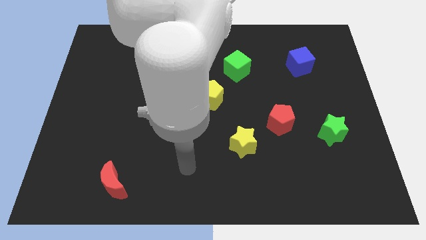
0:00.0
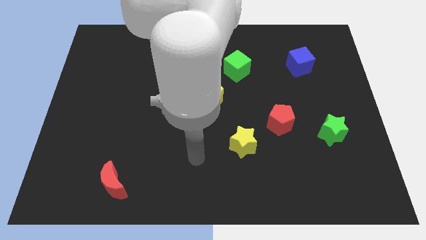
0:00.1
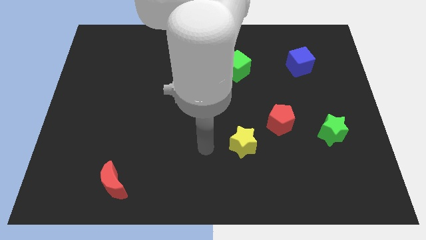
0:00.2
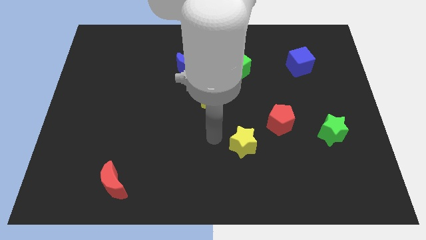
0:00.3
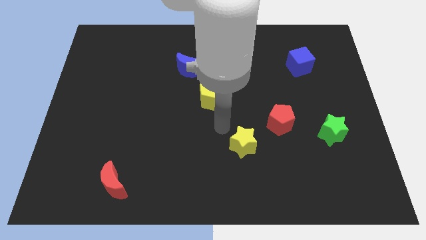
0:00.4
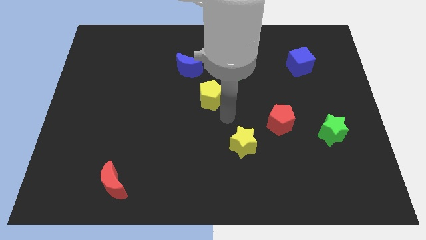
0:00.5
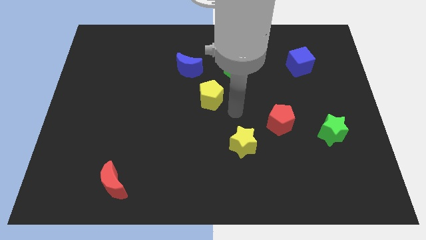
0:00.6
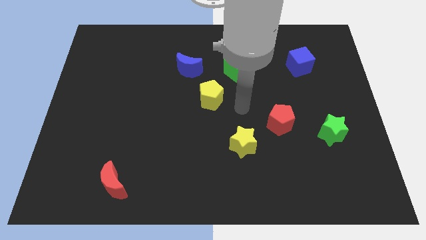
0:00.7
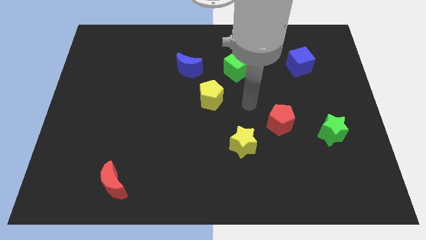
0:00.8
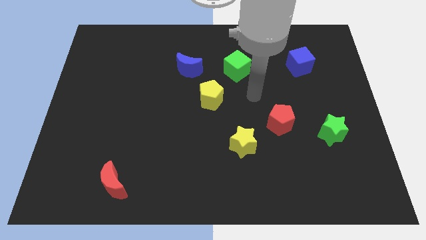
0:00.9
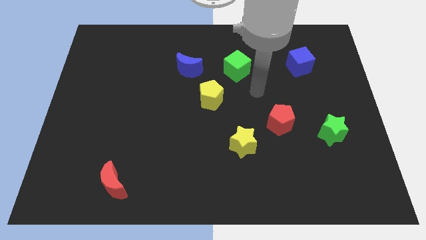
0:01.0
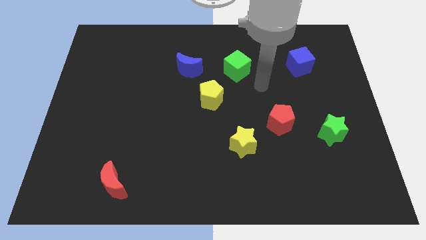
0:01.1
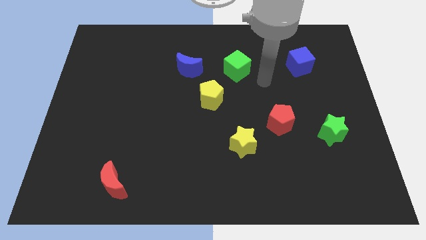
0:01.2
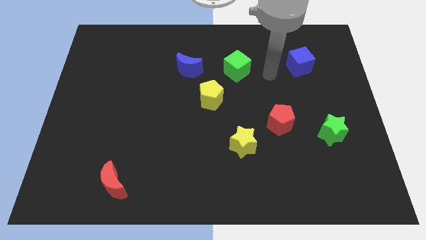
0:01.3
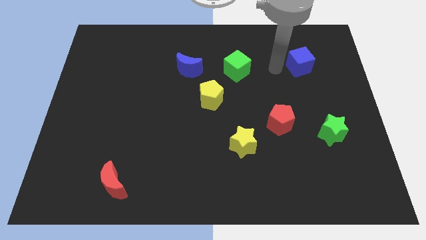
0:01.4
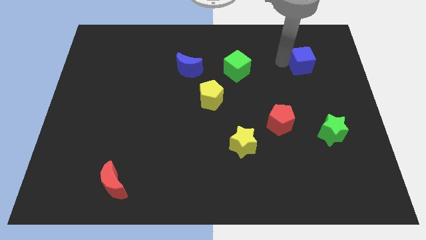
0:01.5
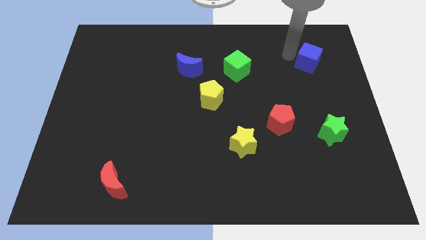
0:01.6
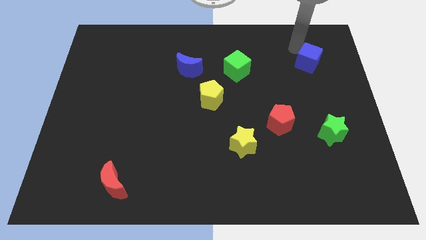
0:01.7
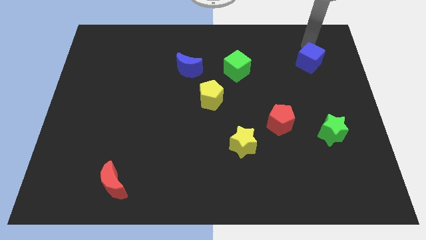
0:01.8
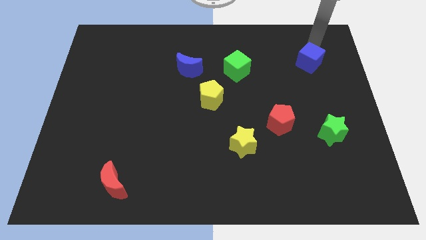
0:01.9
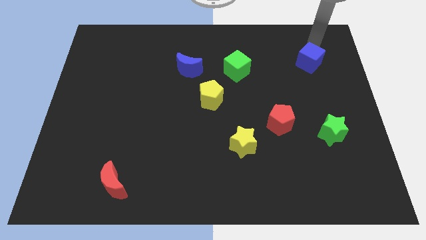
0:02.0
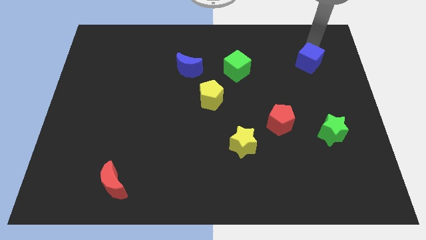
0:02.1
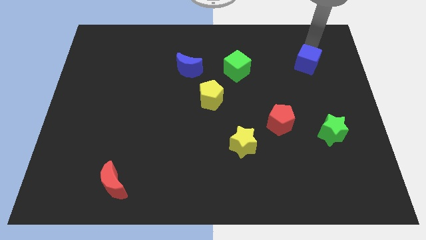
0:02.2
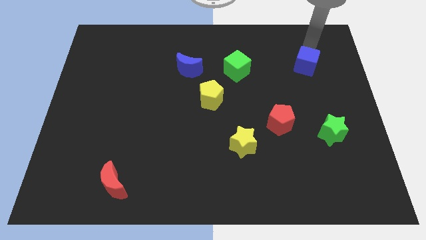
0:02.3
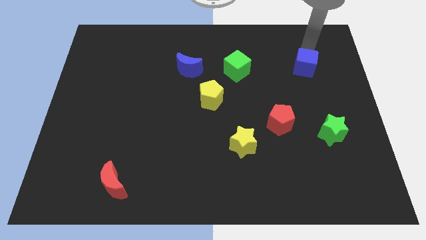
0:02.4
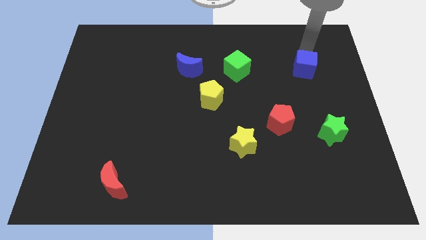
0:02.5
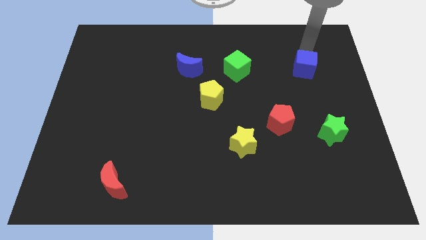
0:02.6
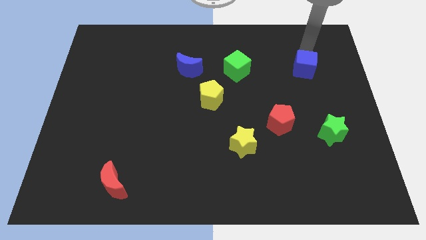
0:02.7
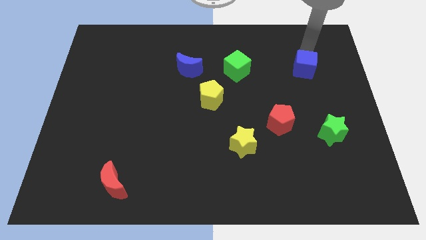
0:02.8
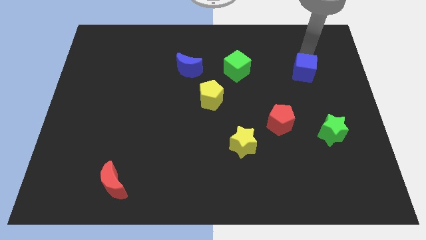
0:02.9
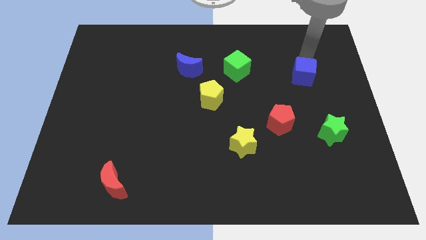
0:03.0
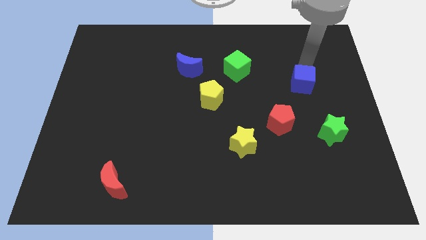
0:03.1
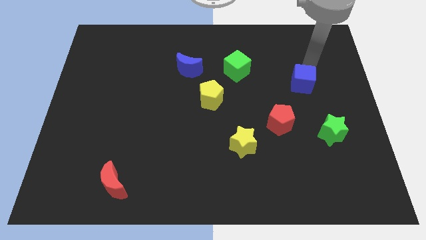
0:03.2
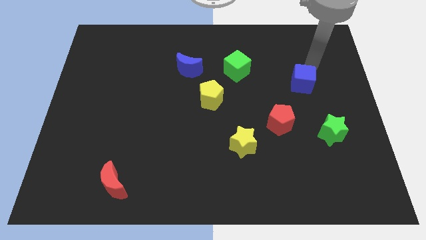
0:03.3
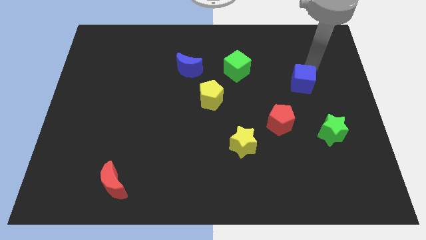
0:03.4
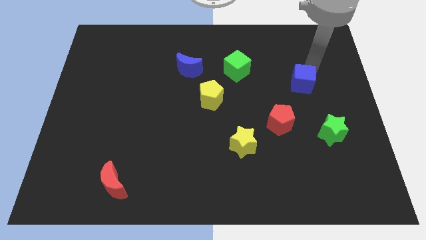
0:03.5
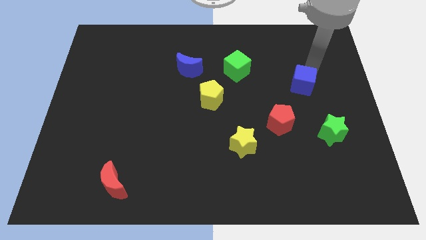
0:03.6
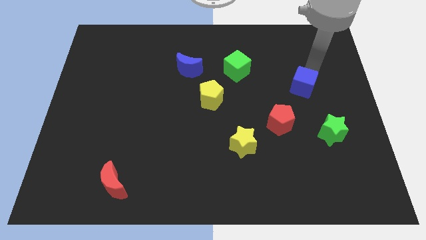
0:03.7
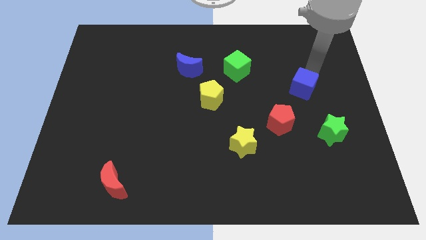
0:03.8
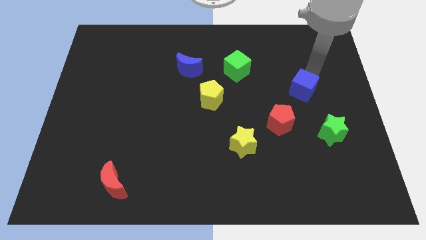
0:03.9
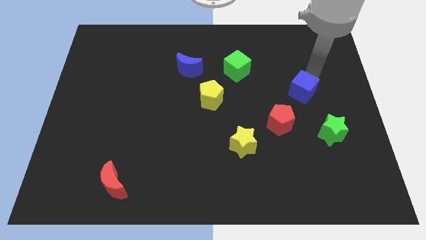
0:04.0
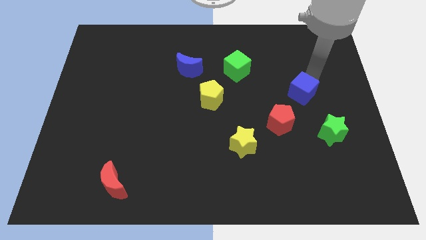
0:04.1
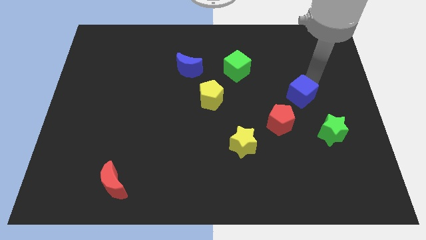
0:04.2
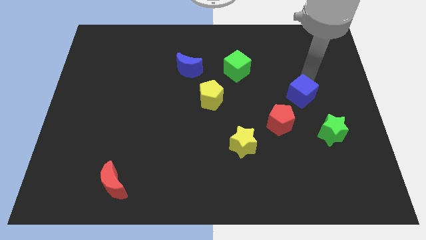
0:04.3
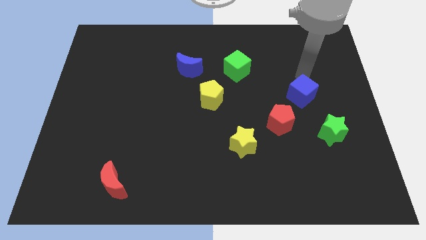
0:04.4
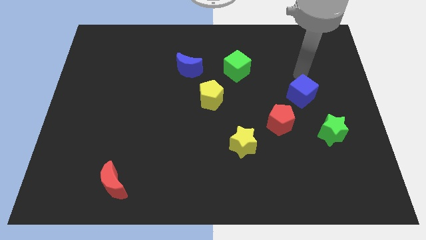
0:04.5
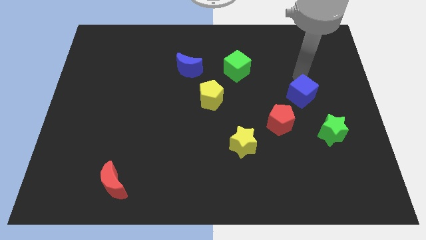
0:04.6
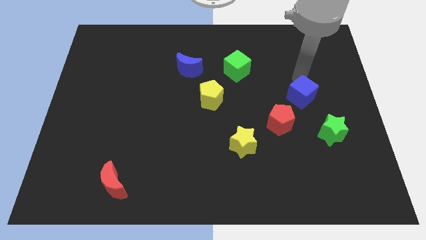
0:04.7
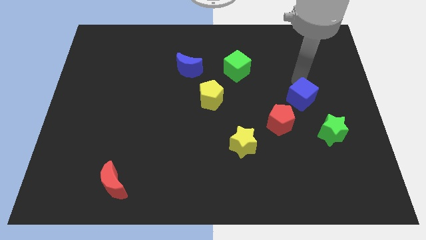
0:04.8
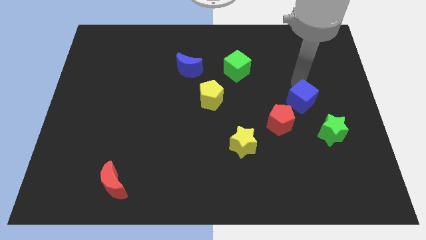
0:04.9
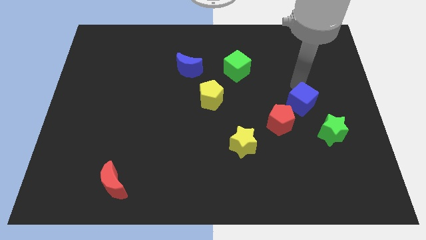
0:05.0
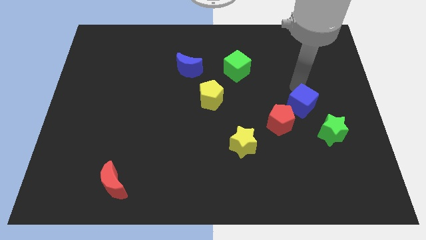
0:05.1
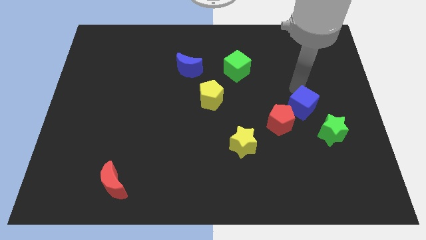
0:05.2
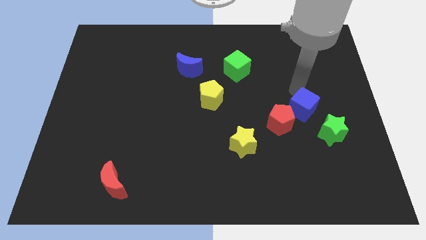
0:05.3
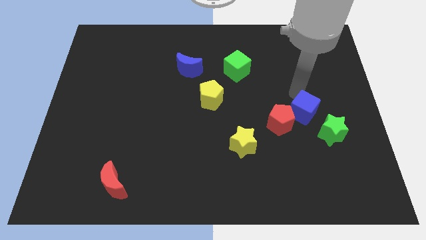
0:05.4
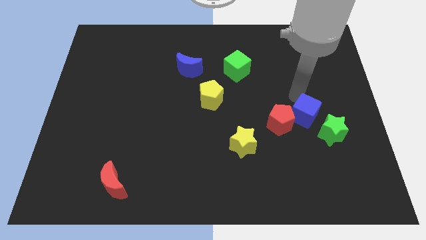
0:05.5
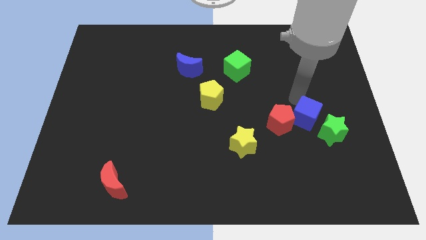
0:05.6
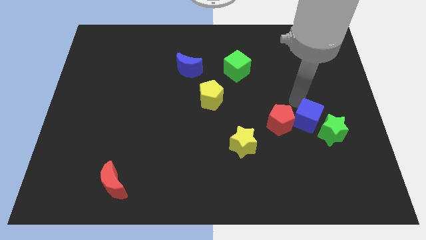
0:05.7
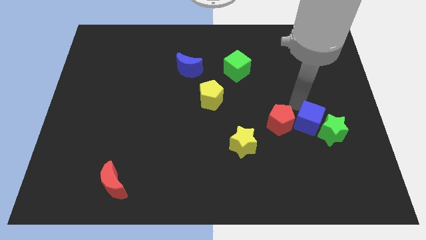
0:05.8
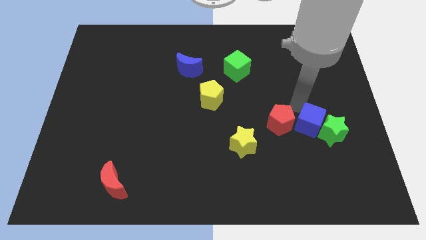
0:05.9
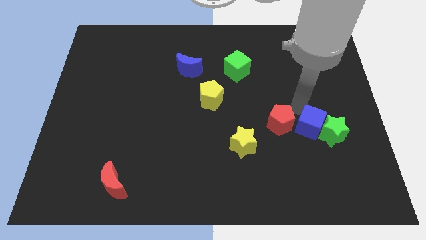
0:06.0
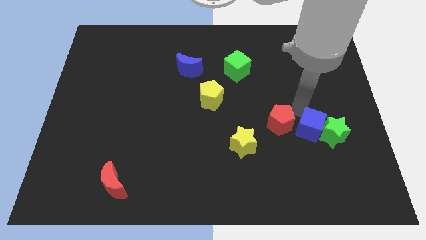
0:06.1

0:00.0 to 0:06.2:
slide the blue cube down

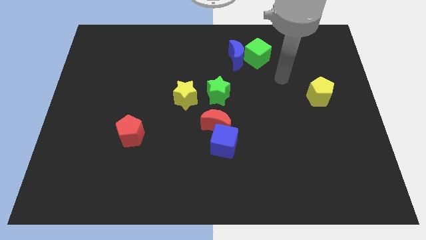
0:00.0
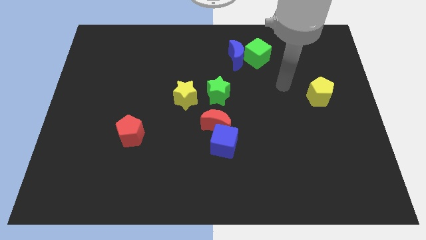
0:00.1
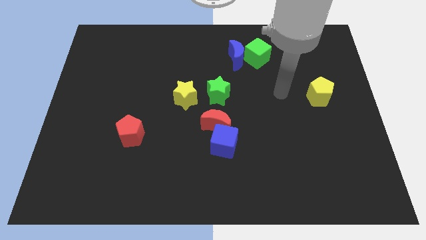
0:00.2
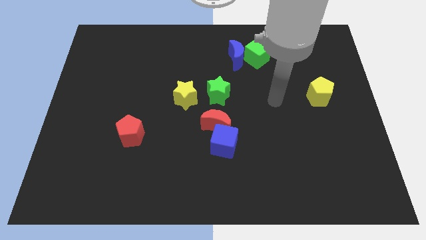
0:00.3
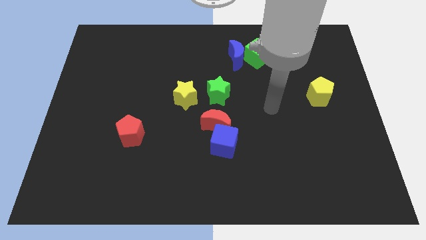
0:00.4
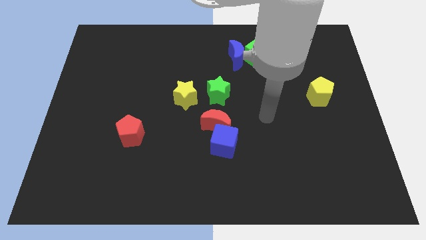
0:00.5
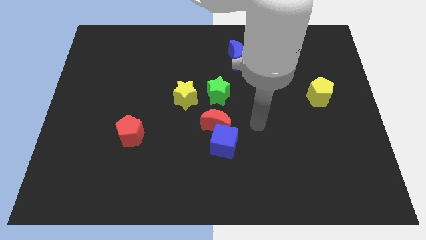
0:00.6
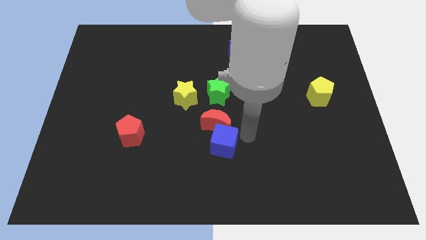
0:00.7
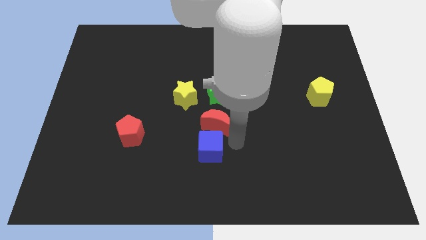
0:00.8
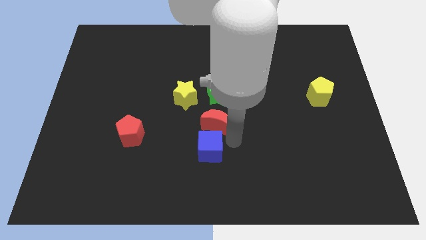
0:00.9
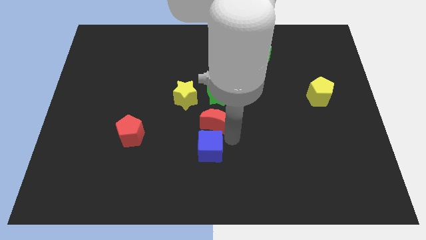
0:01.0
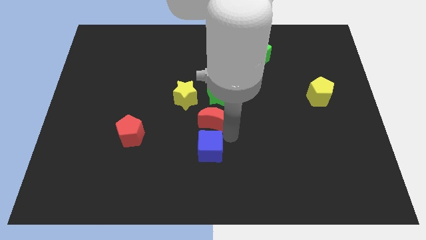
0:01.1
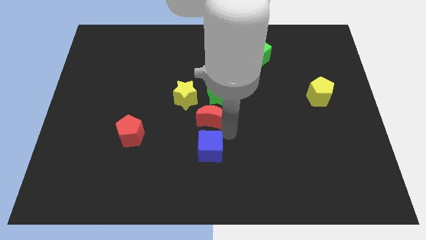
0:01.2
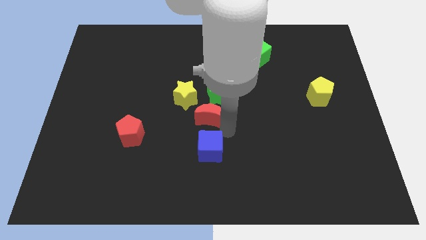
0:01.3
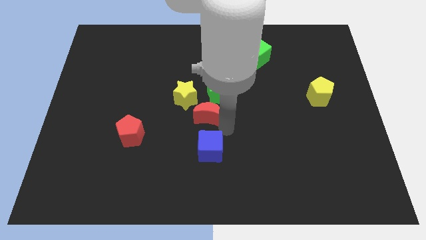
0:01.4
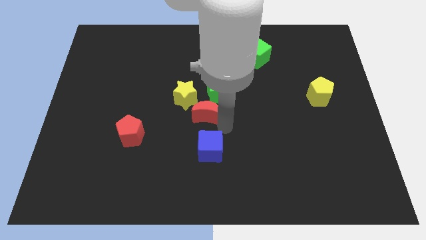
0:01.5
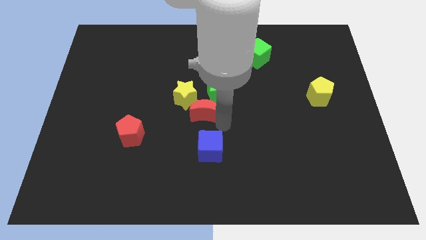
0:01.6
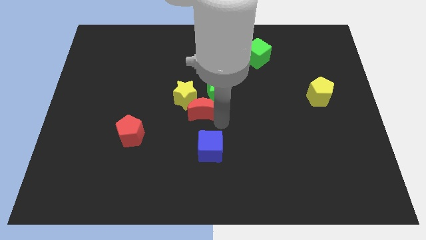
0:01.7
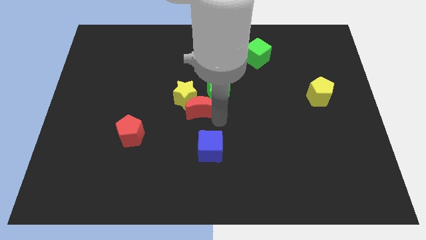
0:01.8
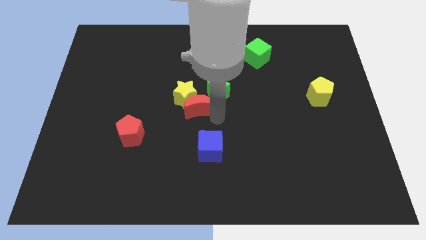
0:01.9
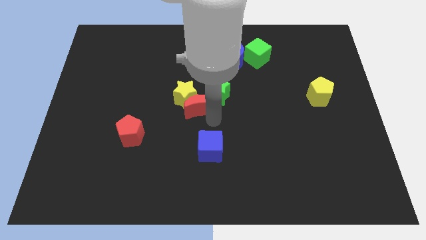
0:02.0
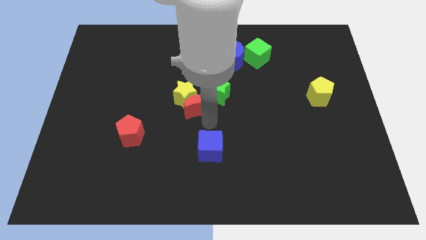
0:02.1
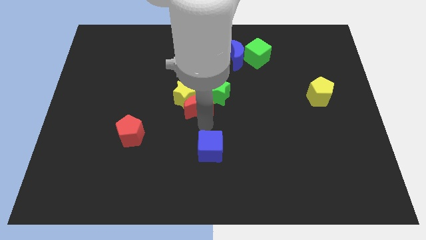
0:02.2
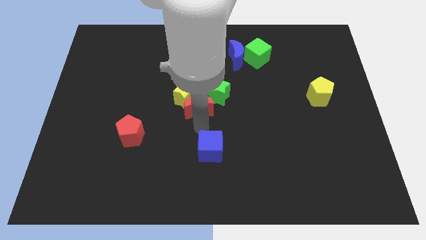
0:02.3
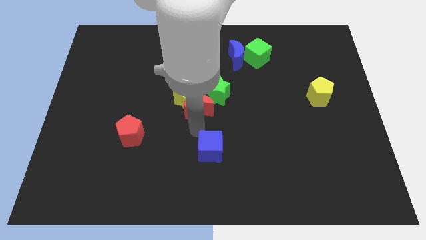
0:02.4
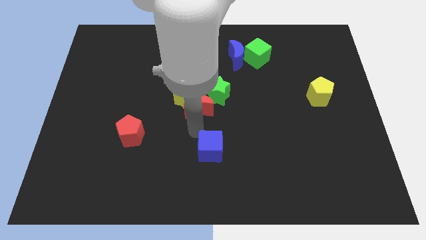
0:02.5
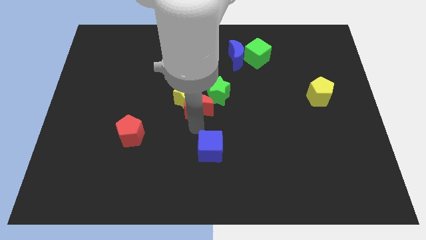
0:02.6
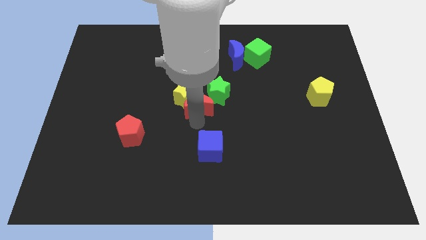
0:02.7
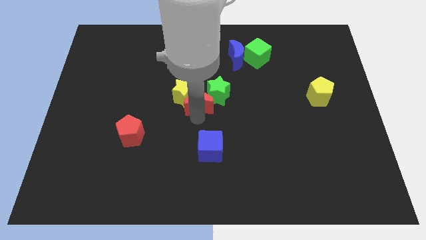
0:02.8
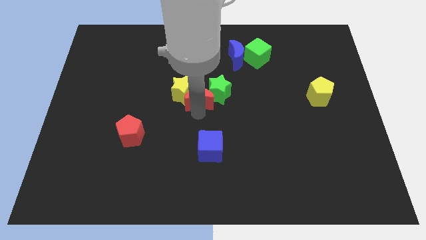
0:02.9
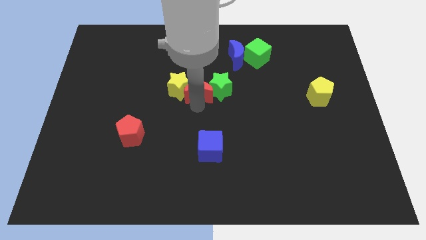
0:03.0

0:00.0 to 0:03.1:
slide the red moon a little upwards
